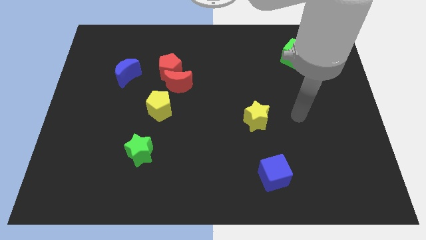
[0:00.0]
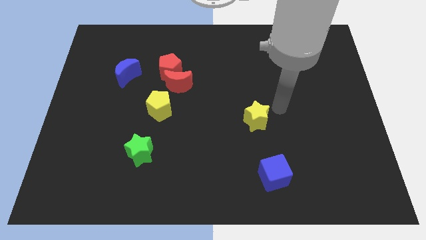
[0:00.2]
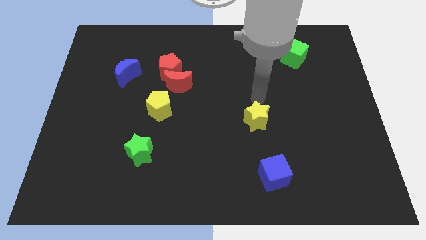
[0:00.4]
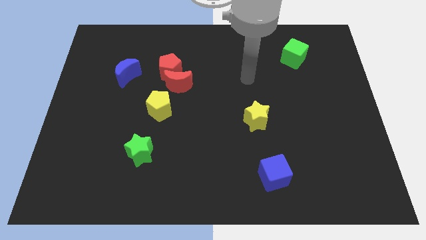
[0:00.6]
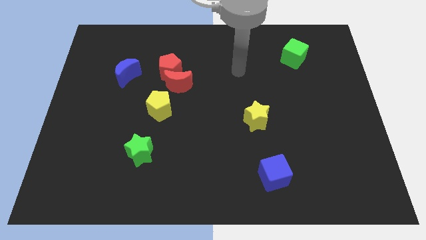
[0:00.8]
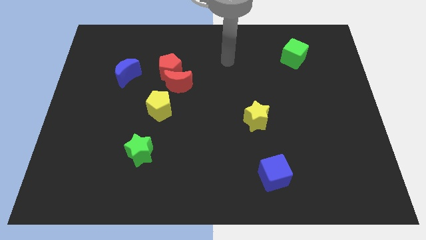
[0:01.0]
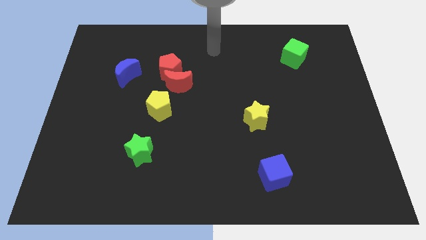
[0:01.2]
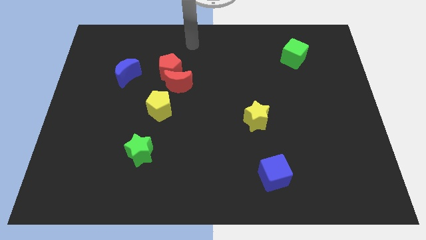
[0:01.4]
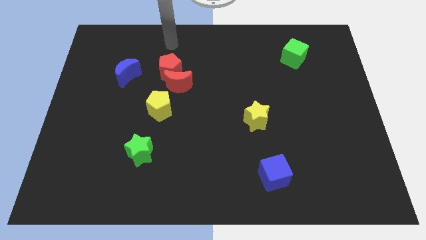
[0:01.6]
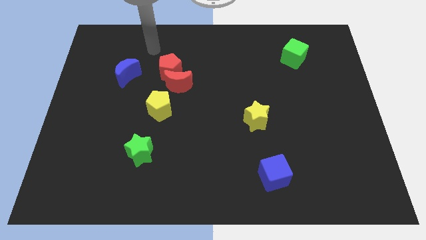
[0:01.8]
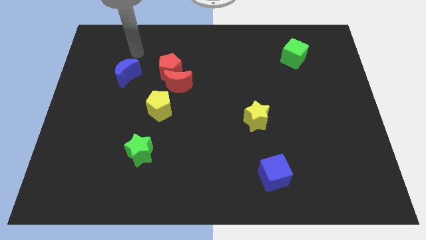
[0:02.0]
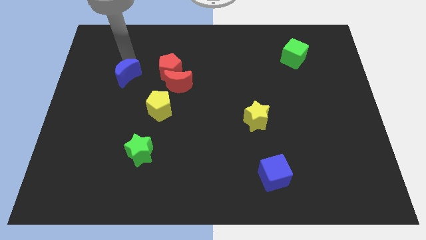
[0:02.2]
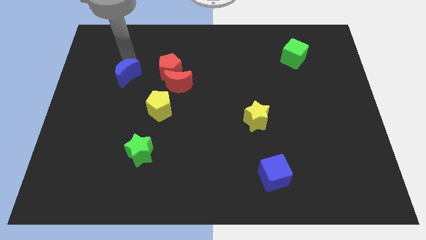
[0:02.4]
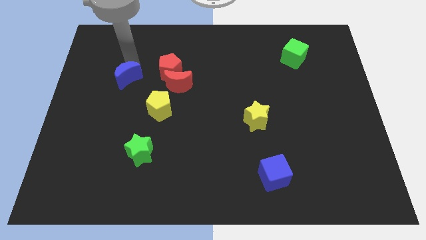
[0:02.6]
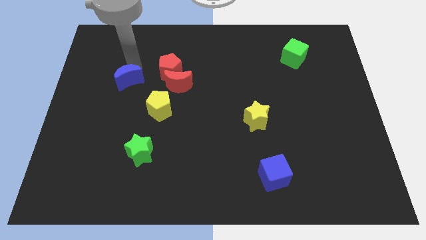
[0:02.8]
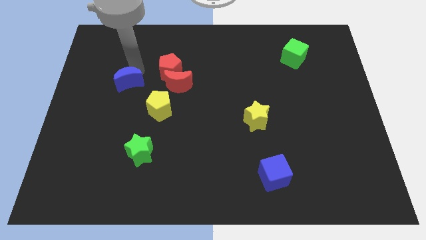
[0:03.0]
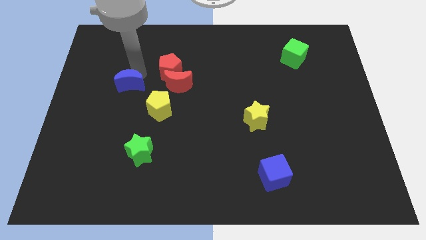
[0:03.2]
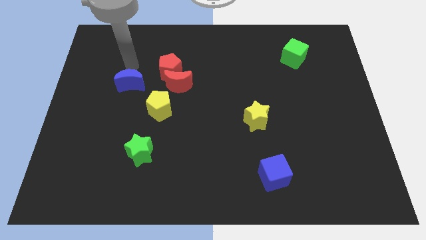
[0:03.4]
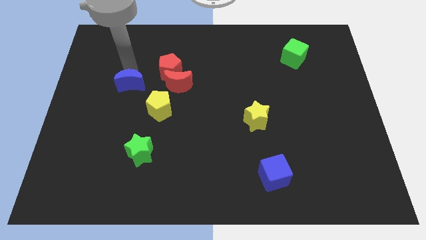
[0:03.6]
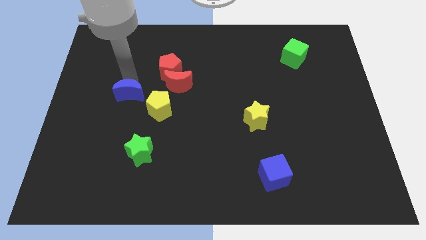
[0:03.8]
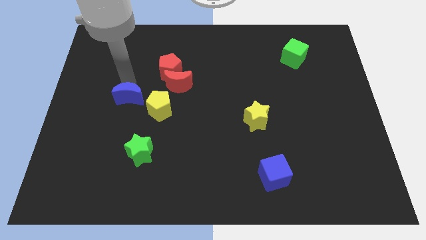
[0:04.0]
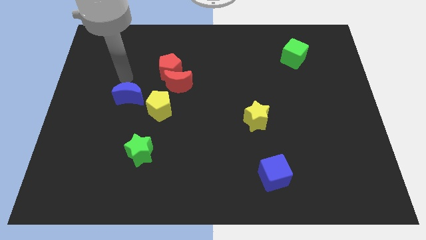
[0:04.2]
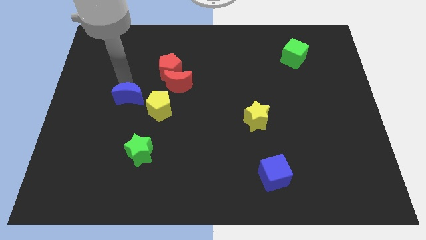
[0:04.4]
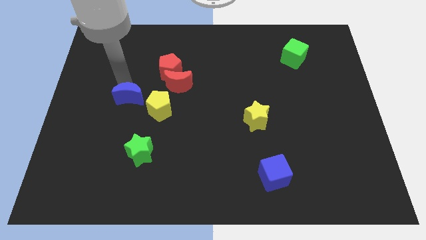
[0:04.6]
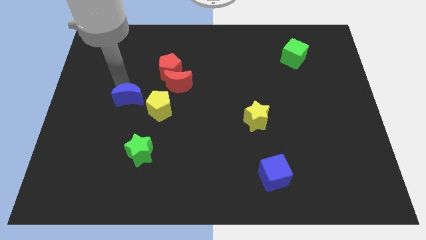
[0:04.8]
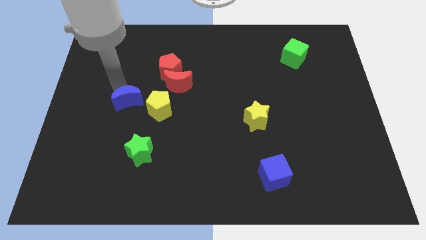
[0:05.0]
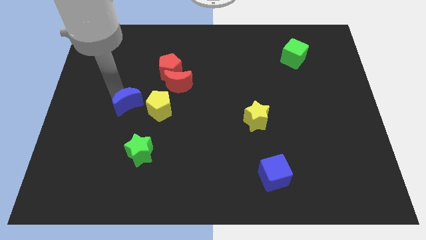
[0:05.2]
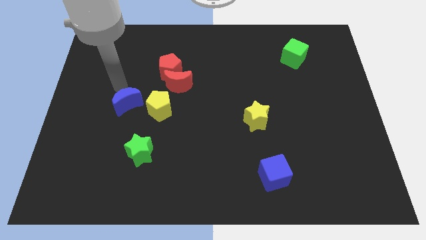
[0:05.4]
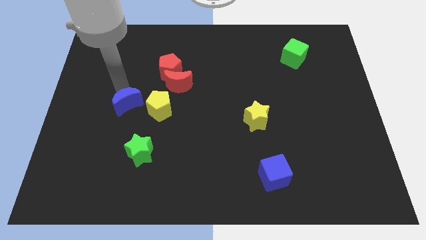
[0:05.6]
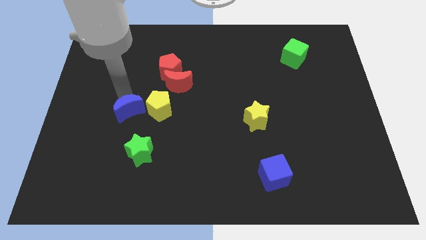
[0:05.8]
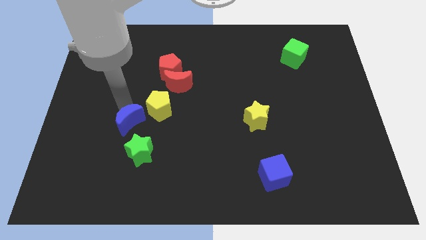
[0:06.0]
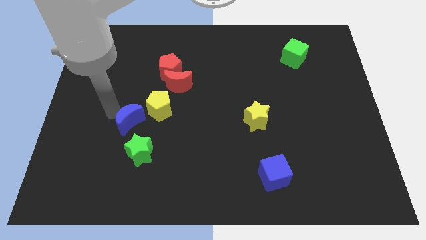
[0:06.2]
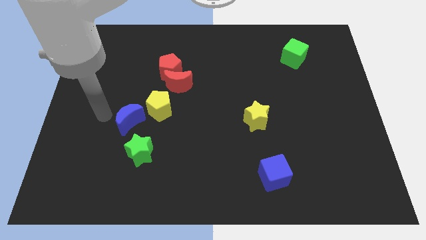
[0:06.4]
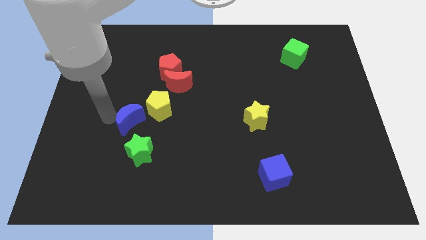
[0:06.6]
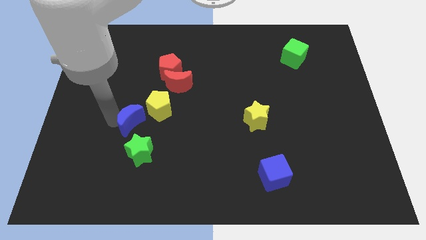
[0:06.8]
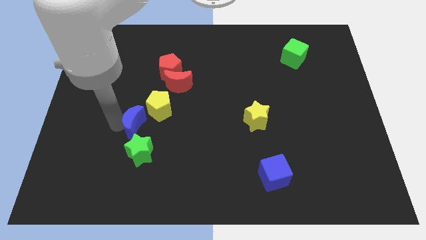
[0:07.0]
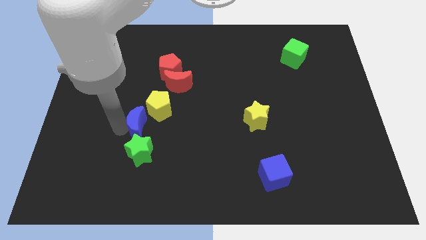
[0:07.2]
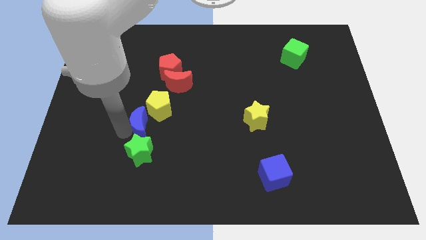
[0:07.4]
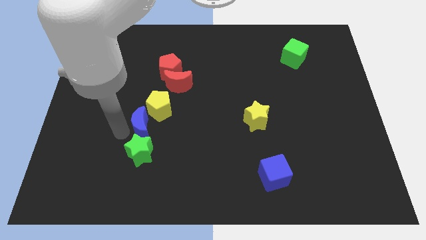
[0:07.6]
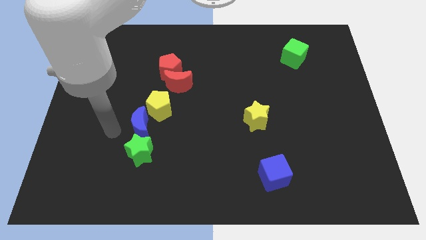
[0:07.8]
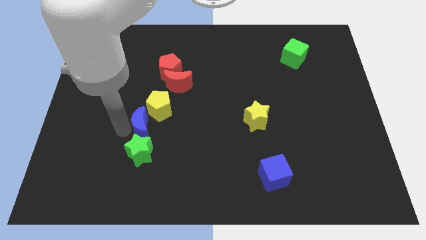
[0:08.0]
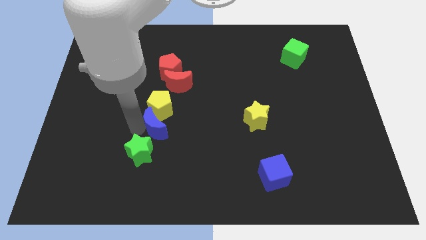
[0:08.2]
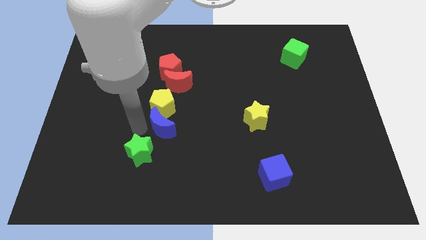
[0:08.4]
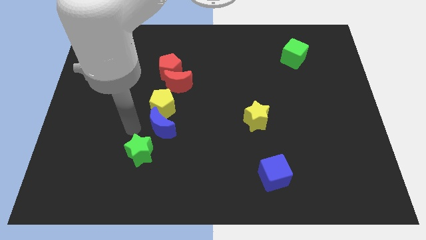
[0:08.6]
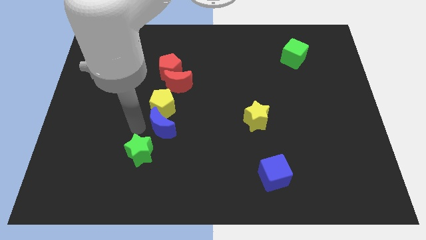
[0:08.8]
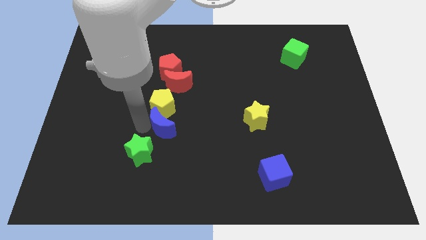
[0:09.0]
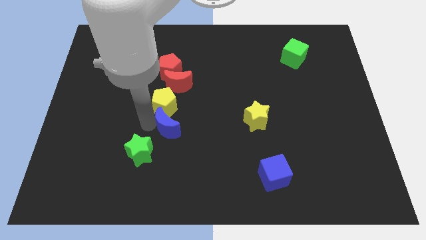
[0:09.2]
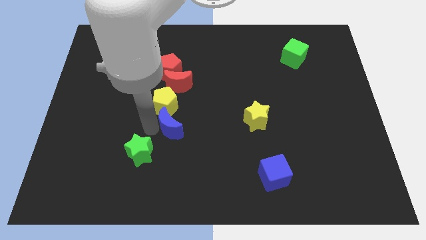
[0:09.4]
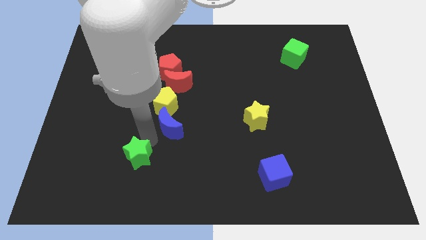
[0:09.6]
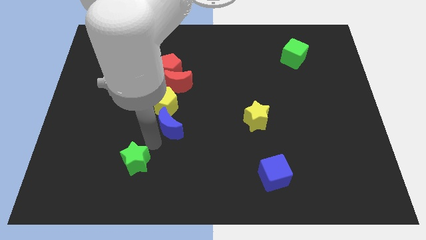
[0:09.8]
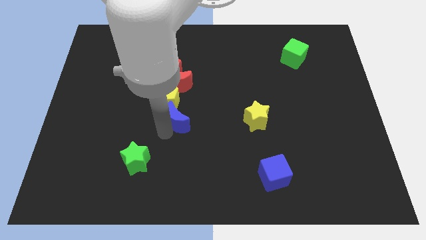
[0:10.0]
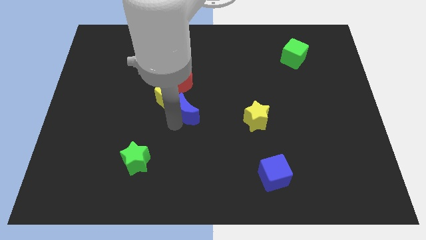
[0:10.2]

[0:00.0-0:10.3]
slide the blue moon to the bottom right of the red moon

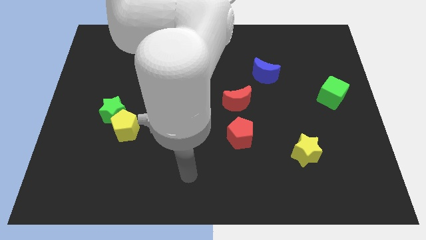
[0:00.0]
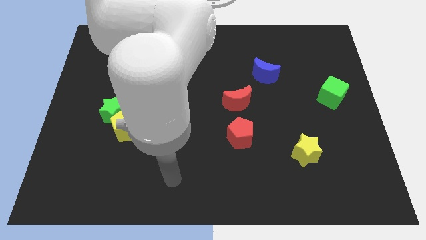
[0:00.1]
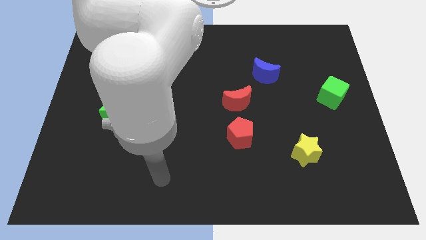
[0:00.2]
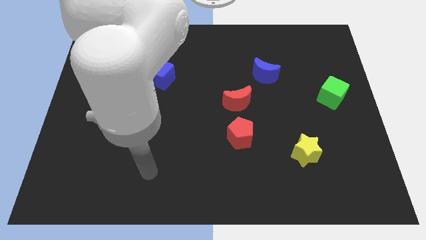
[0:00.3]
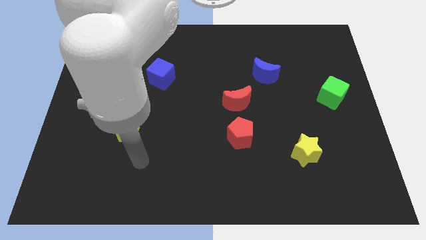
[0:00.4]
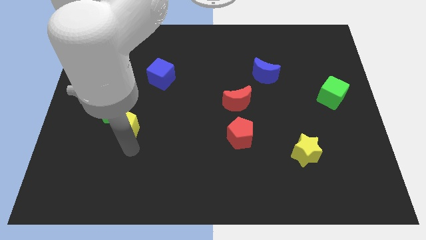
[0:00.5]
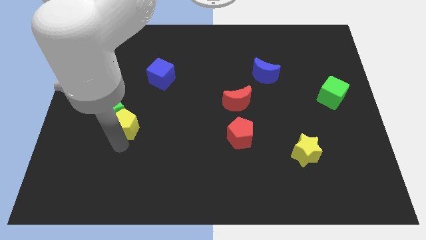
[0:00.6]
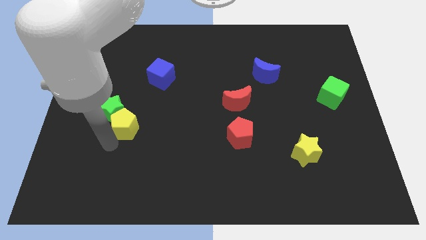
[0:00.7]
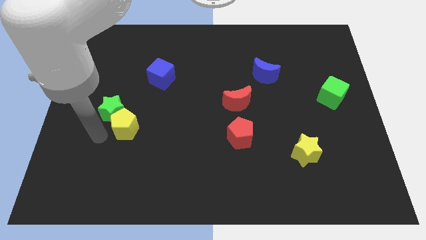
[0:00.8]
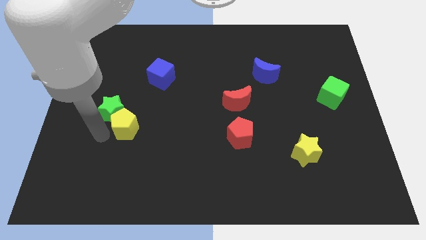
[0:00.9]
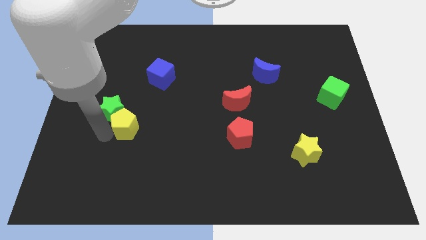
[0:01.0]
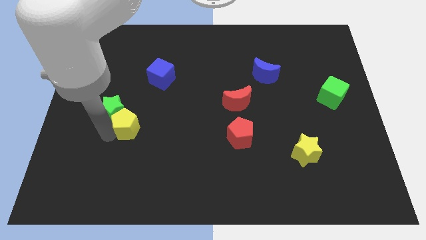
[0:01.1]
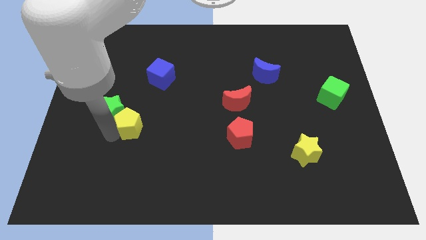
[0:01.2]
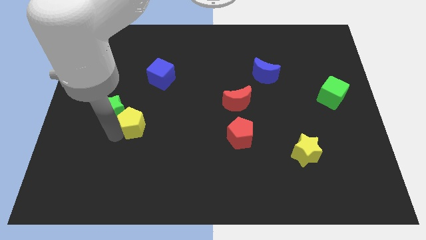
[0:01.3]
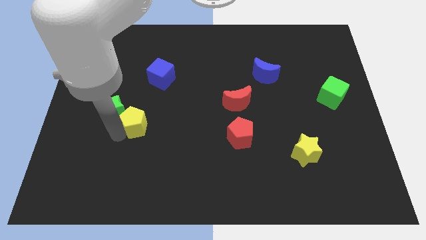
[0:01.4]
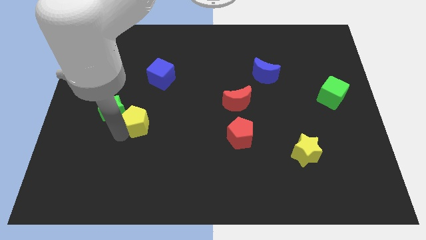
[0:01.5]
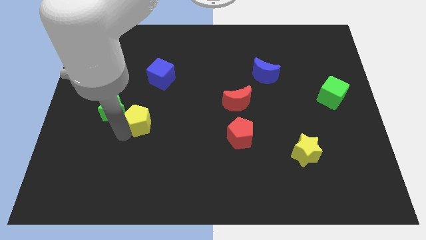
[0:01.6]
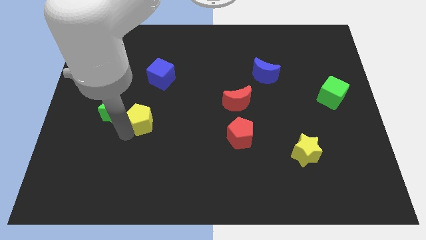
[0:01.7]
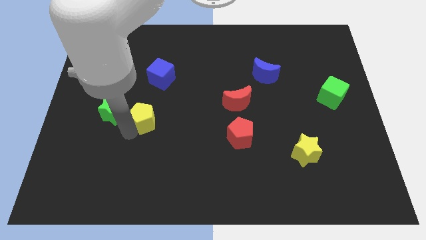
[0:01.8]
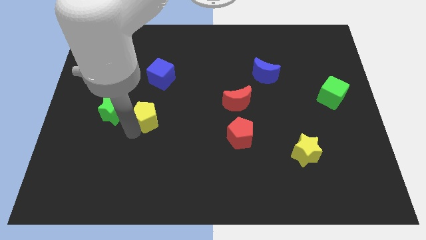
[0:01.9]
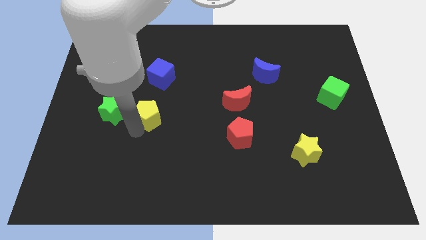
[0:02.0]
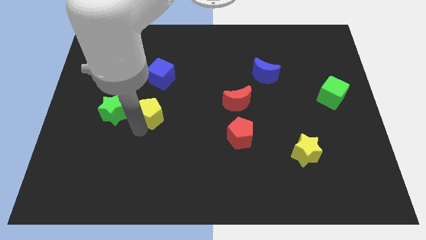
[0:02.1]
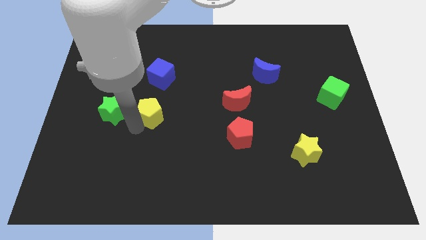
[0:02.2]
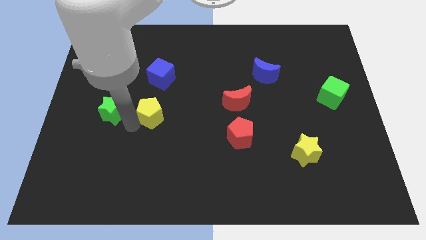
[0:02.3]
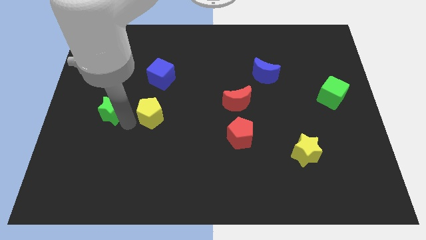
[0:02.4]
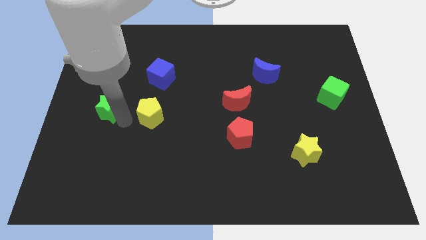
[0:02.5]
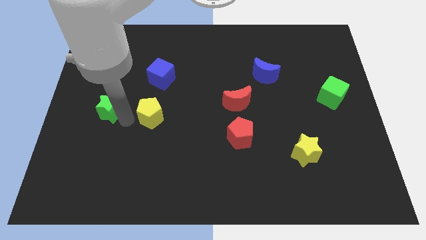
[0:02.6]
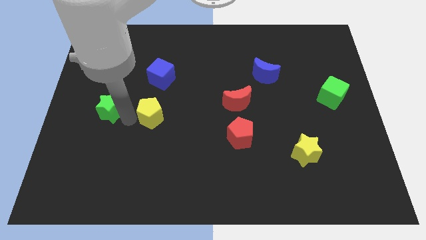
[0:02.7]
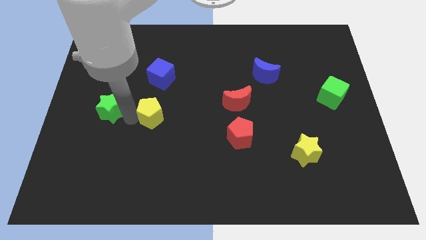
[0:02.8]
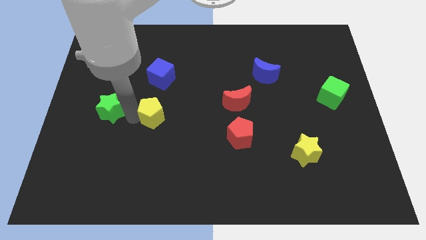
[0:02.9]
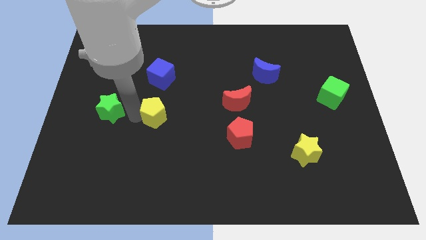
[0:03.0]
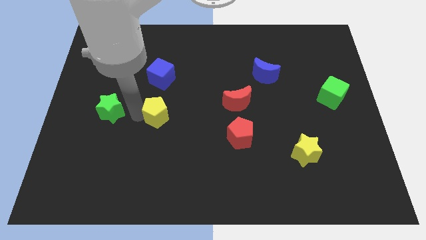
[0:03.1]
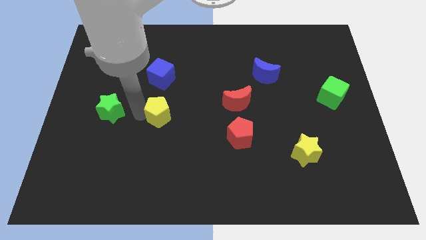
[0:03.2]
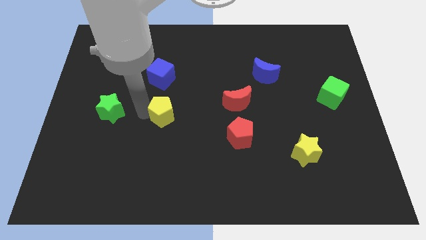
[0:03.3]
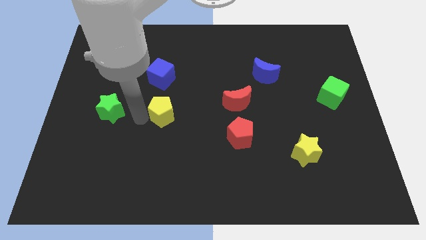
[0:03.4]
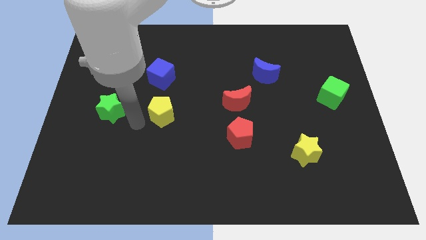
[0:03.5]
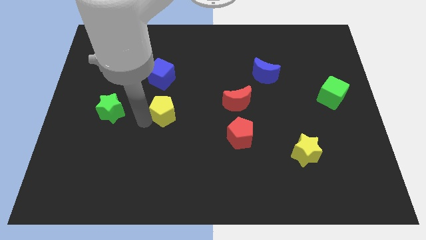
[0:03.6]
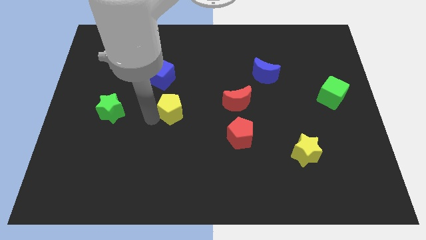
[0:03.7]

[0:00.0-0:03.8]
move the yellow pentagon just left of the red moon
